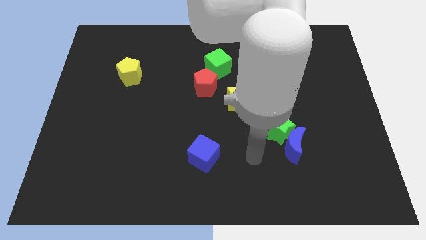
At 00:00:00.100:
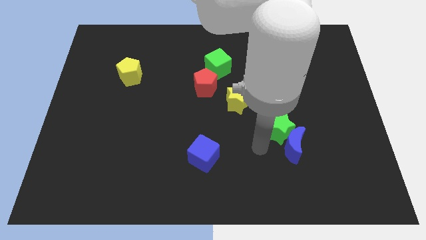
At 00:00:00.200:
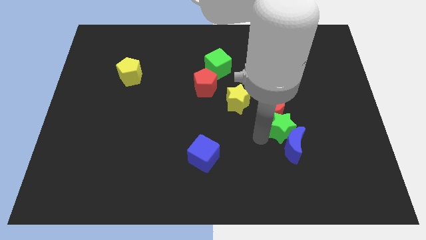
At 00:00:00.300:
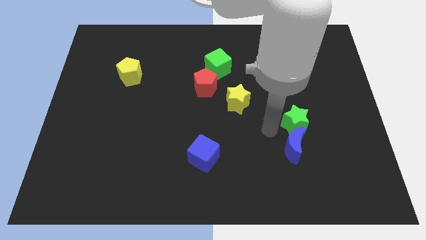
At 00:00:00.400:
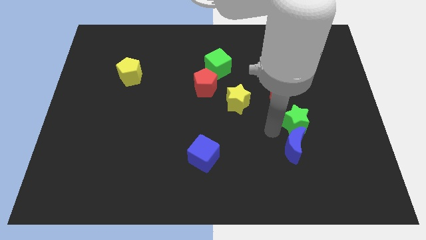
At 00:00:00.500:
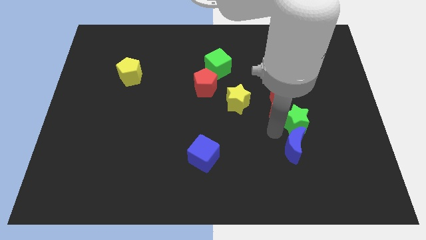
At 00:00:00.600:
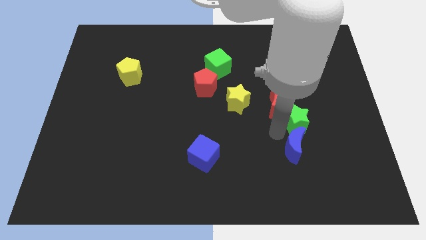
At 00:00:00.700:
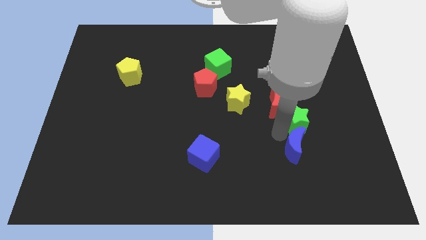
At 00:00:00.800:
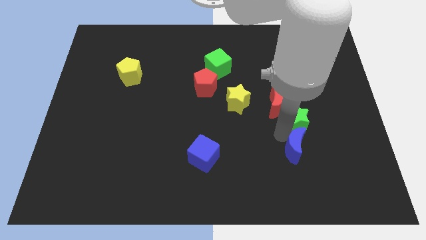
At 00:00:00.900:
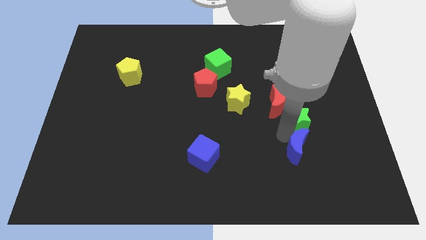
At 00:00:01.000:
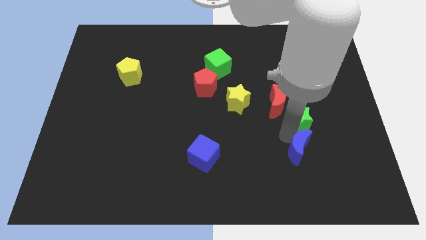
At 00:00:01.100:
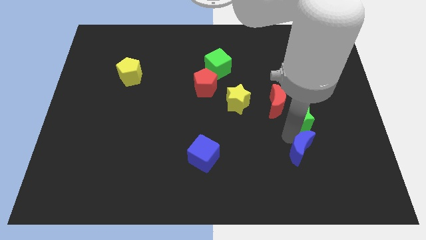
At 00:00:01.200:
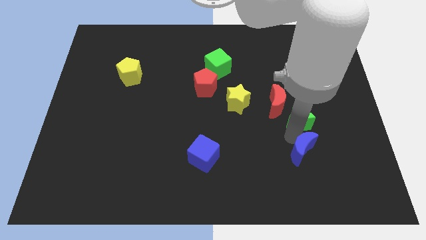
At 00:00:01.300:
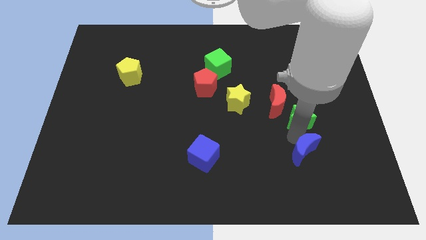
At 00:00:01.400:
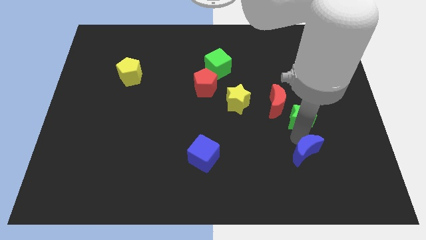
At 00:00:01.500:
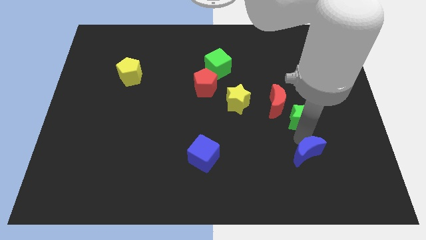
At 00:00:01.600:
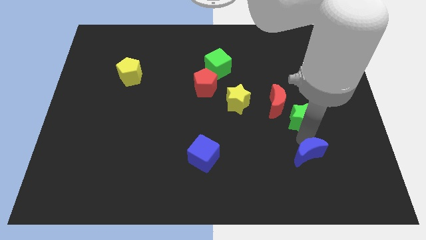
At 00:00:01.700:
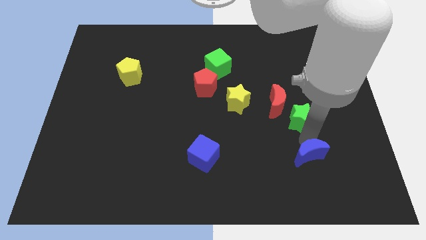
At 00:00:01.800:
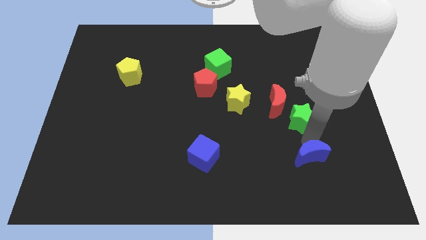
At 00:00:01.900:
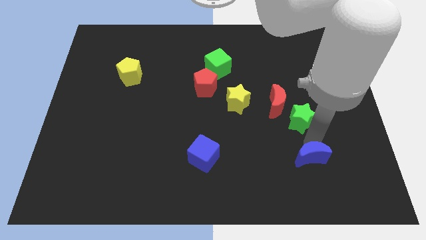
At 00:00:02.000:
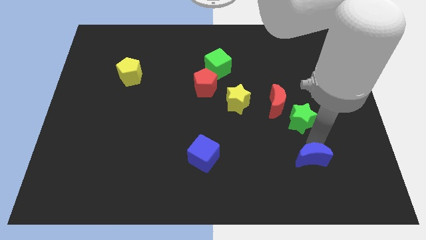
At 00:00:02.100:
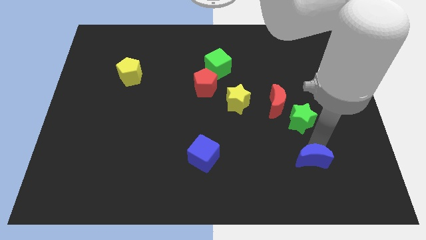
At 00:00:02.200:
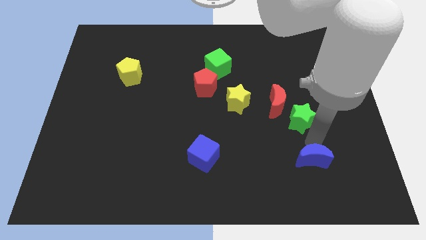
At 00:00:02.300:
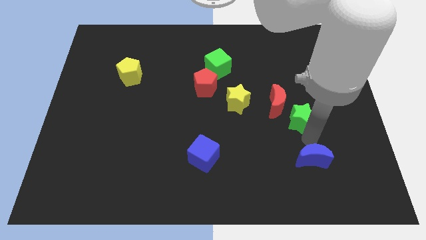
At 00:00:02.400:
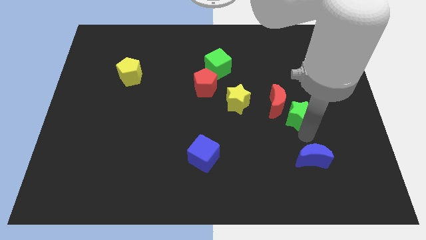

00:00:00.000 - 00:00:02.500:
pull the blue moon apart from the green star

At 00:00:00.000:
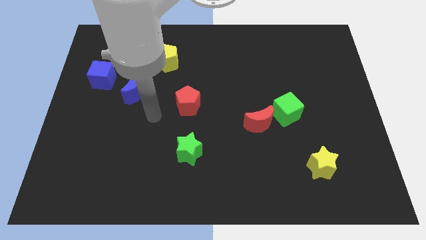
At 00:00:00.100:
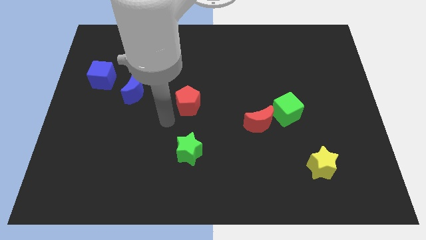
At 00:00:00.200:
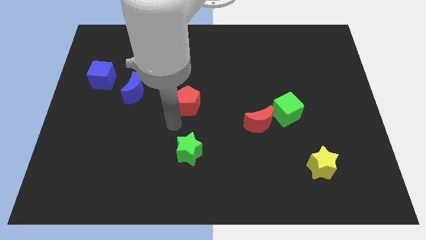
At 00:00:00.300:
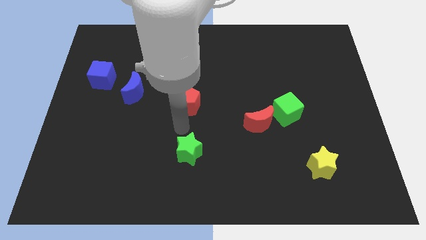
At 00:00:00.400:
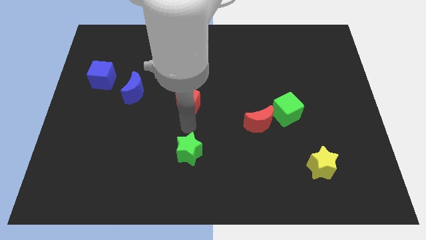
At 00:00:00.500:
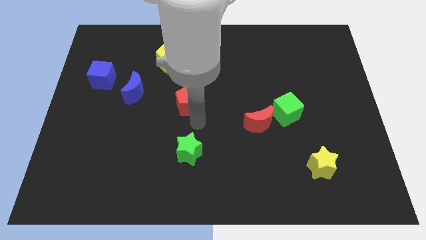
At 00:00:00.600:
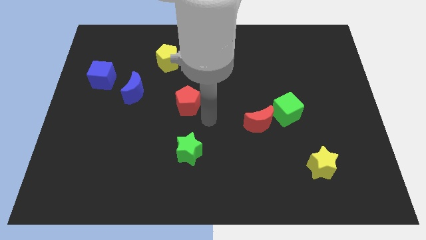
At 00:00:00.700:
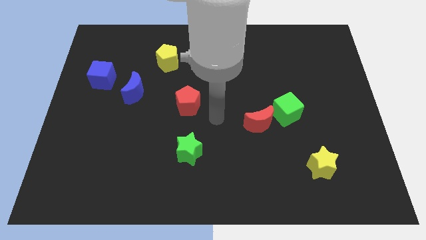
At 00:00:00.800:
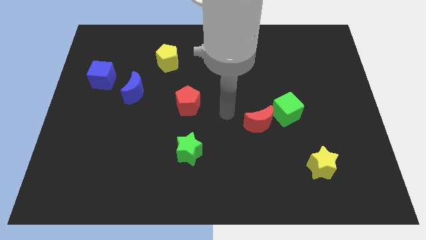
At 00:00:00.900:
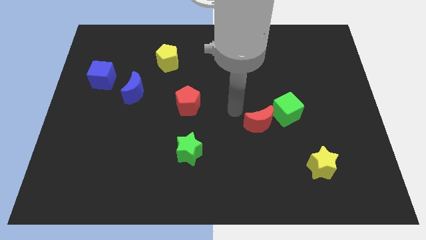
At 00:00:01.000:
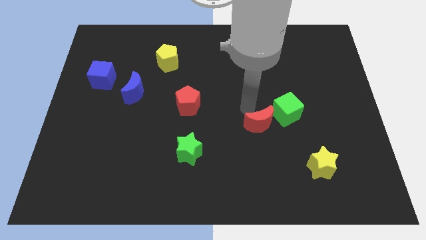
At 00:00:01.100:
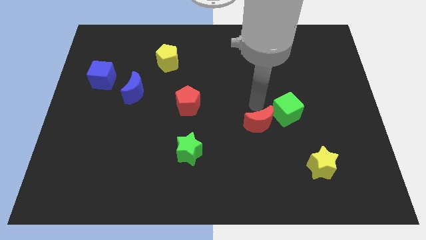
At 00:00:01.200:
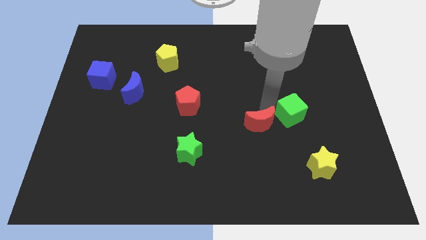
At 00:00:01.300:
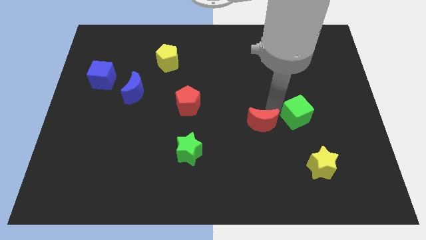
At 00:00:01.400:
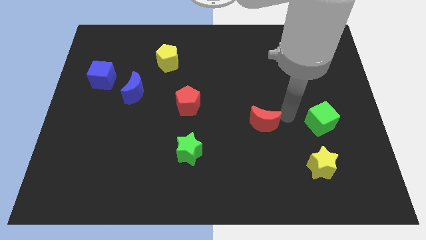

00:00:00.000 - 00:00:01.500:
pull the red moon apart from the green cube

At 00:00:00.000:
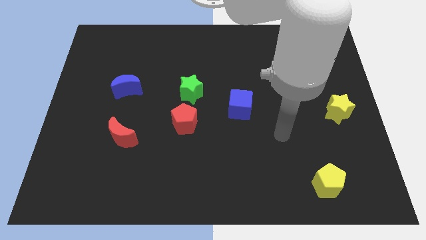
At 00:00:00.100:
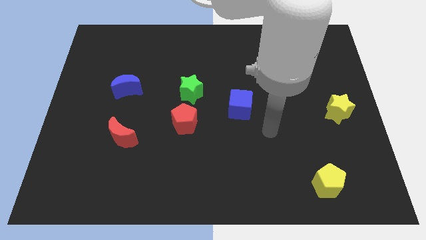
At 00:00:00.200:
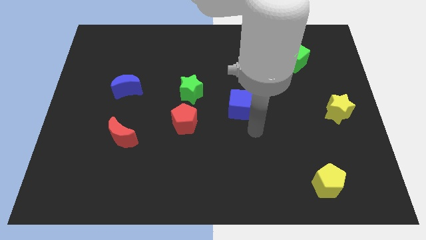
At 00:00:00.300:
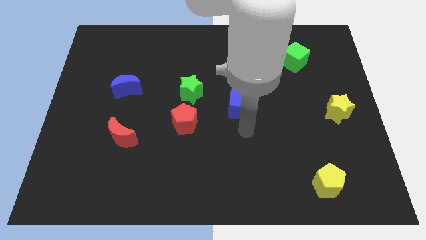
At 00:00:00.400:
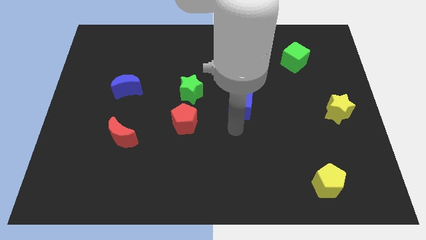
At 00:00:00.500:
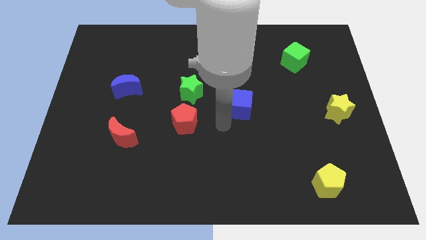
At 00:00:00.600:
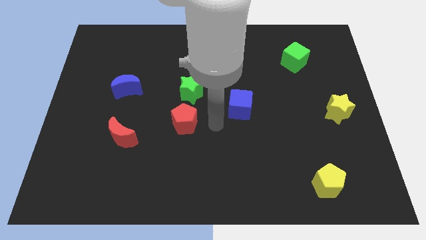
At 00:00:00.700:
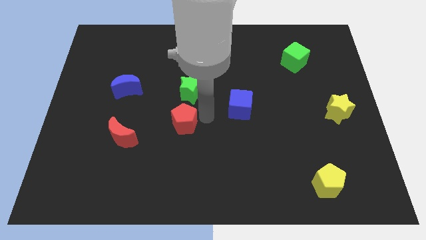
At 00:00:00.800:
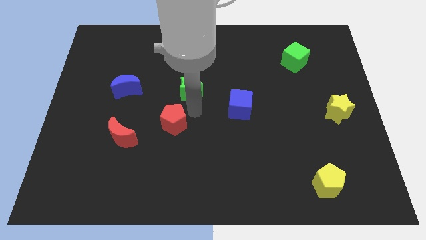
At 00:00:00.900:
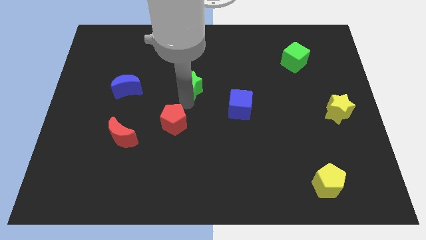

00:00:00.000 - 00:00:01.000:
move the red pentagon away from the green star

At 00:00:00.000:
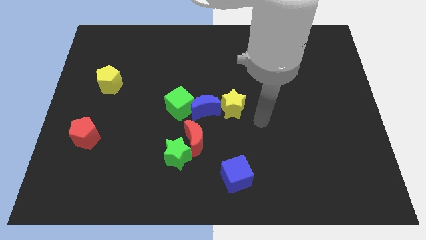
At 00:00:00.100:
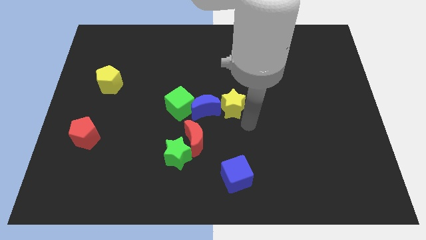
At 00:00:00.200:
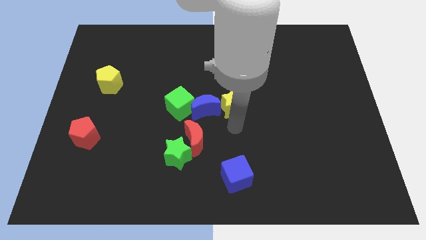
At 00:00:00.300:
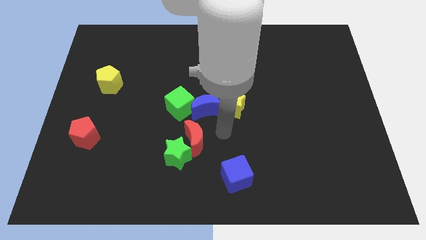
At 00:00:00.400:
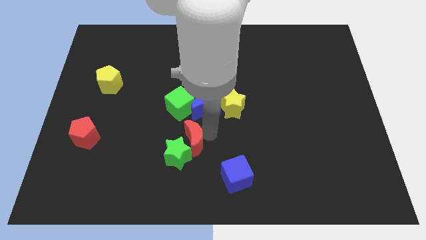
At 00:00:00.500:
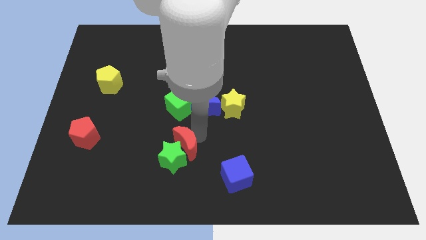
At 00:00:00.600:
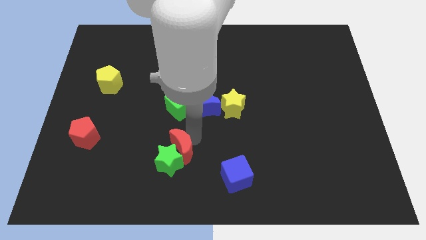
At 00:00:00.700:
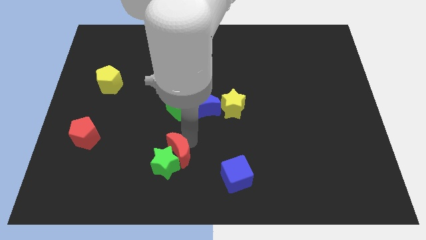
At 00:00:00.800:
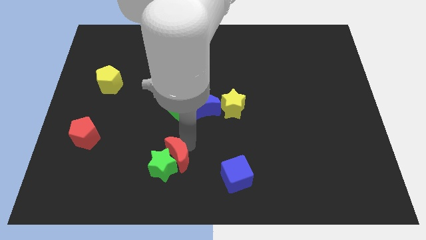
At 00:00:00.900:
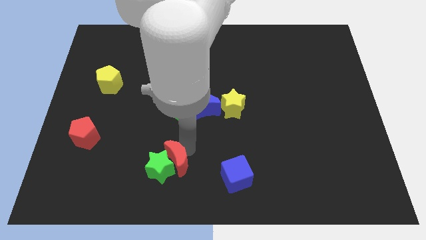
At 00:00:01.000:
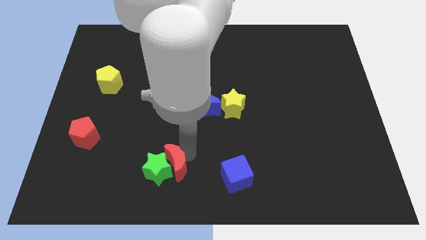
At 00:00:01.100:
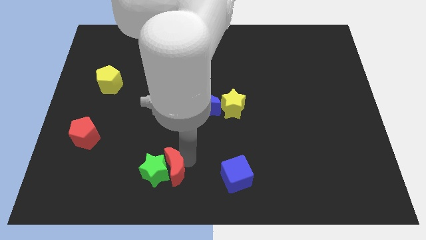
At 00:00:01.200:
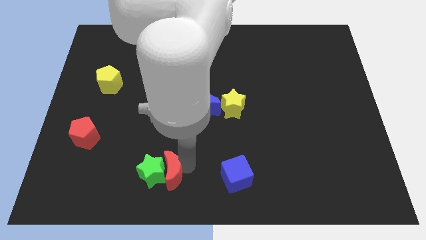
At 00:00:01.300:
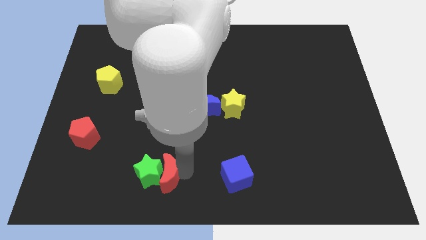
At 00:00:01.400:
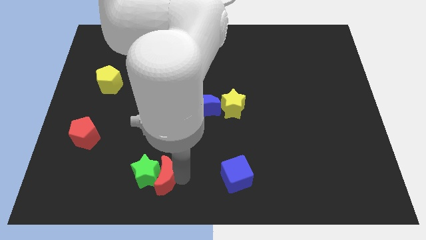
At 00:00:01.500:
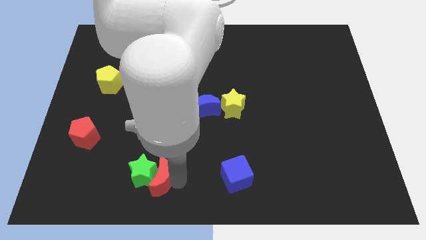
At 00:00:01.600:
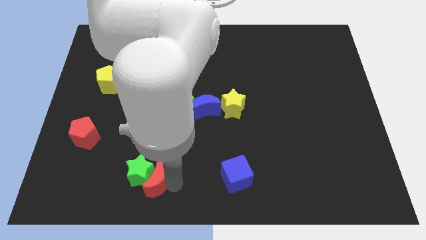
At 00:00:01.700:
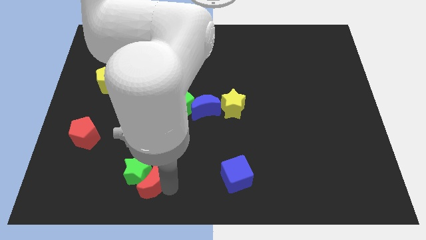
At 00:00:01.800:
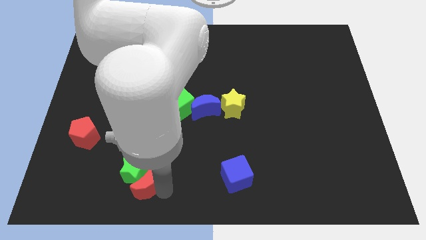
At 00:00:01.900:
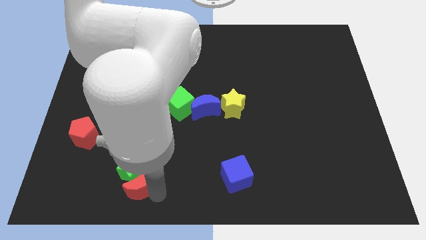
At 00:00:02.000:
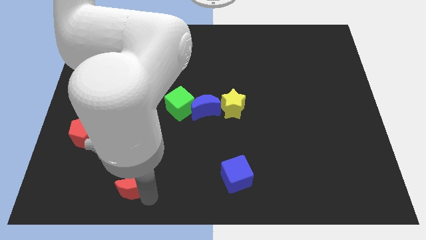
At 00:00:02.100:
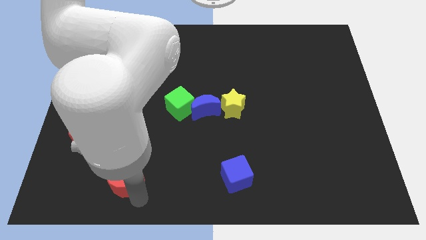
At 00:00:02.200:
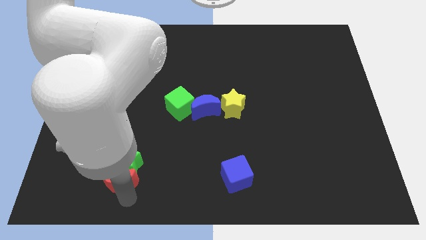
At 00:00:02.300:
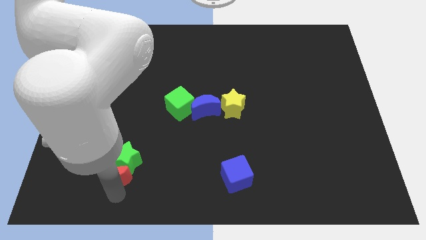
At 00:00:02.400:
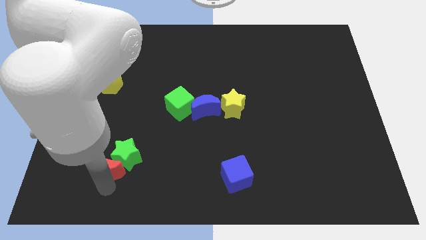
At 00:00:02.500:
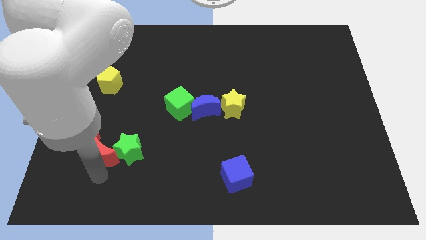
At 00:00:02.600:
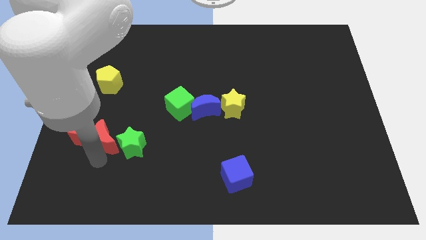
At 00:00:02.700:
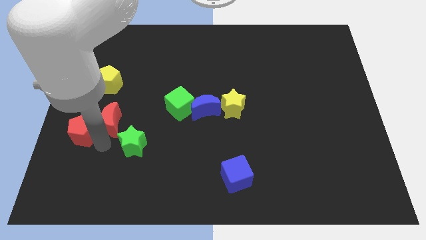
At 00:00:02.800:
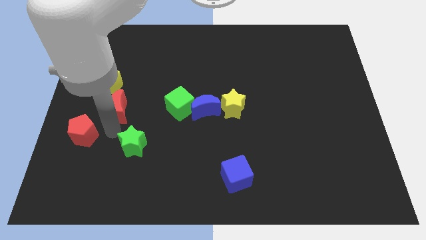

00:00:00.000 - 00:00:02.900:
pull the green star apart from the red moon

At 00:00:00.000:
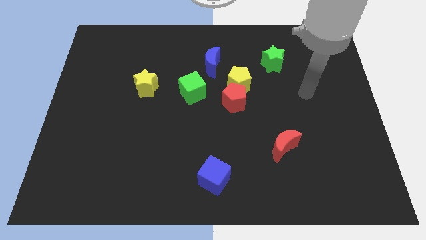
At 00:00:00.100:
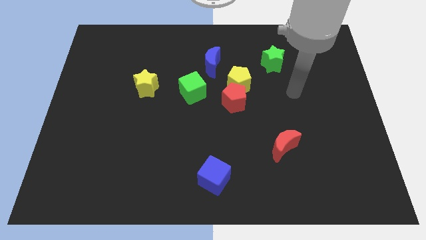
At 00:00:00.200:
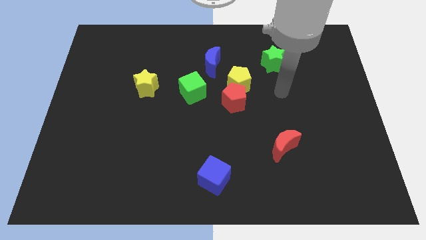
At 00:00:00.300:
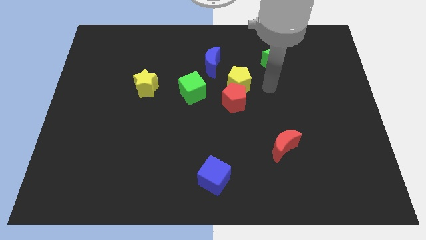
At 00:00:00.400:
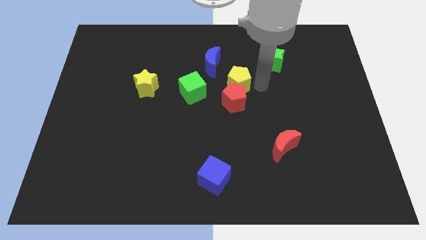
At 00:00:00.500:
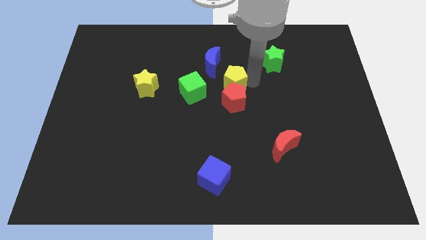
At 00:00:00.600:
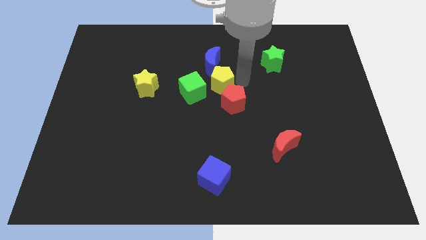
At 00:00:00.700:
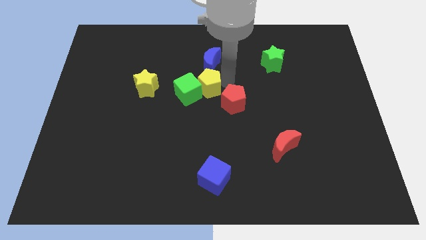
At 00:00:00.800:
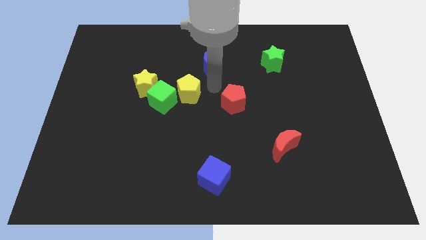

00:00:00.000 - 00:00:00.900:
pull the red pentagon apart from the yellow pentagon

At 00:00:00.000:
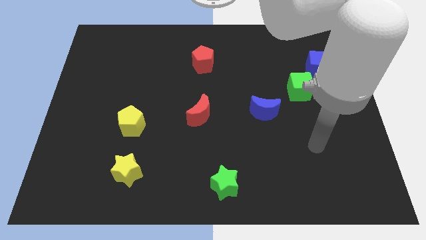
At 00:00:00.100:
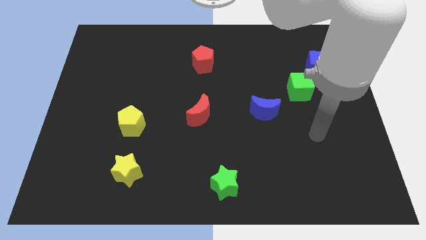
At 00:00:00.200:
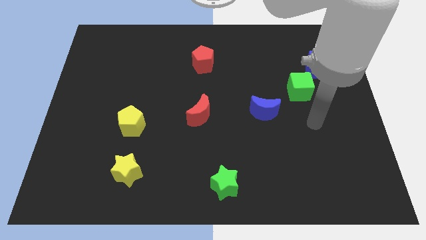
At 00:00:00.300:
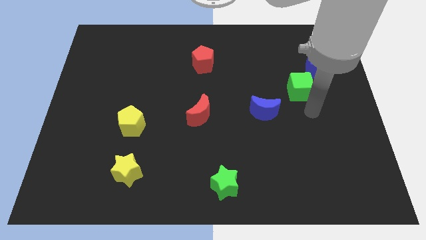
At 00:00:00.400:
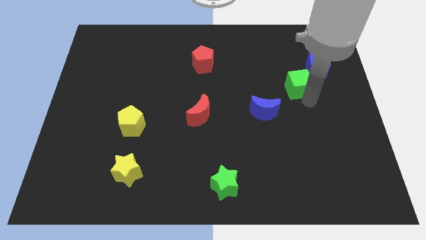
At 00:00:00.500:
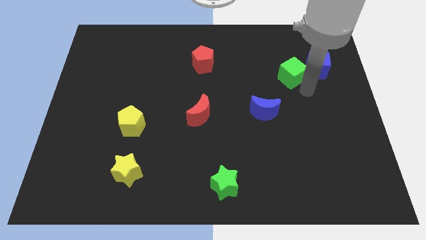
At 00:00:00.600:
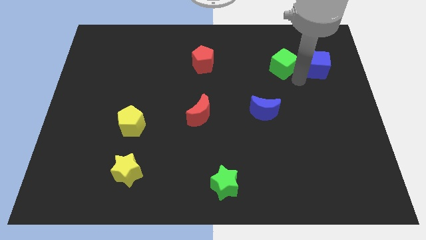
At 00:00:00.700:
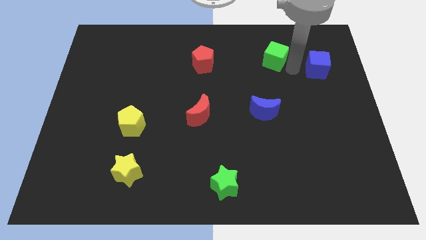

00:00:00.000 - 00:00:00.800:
move the blue cube away from the green cube
